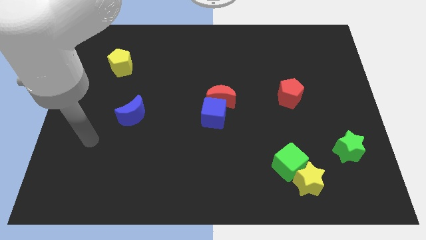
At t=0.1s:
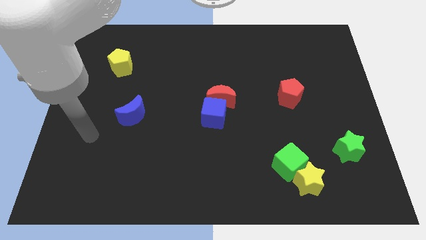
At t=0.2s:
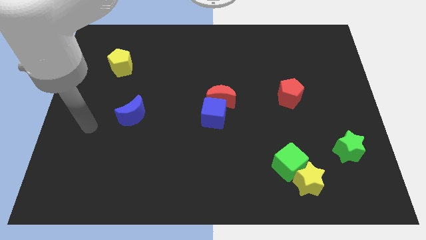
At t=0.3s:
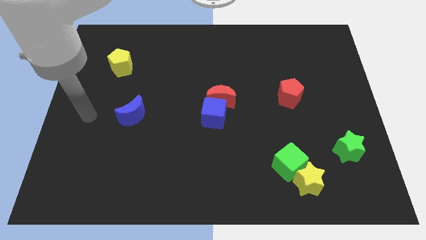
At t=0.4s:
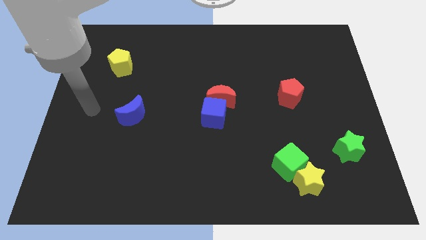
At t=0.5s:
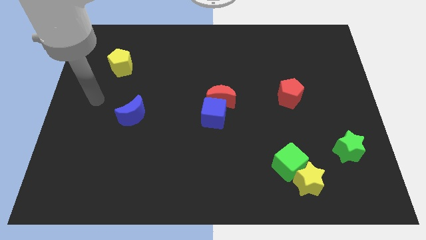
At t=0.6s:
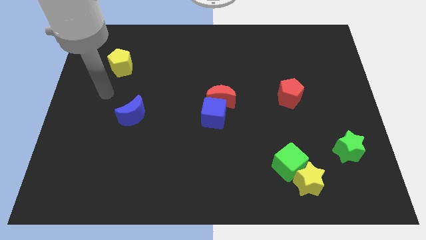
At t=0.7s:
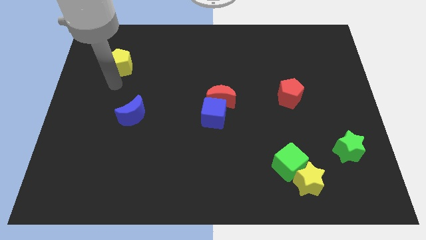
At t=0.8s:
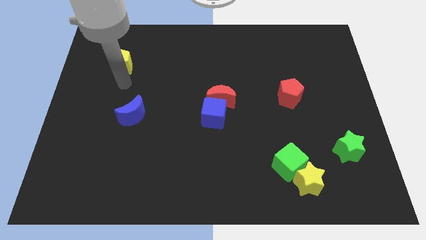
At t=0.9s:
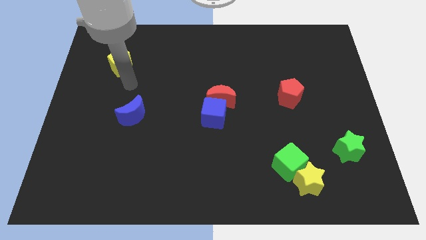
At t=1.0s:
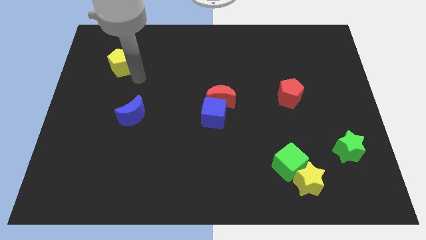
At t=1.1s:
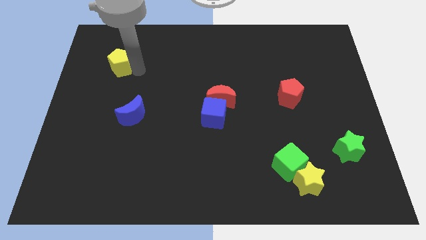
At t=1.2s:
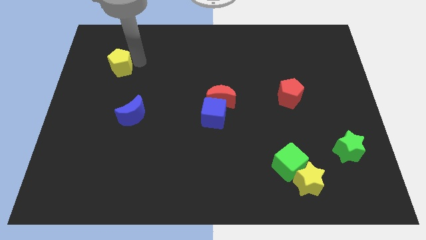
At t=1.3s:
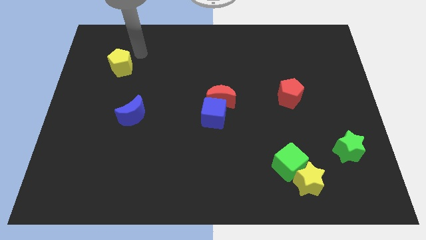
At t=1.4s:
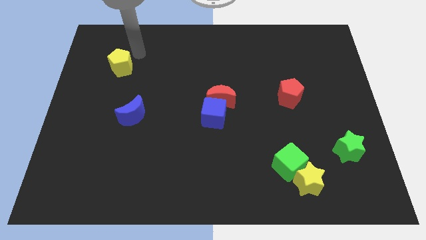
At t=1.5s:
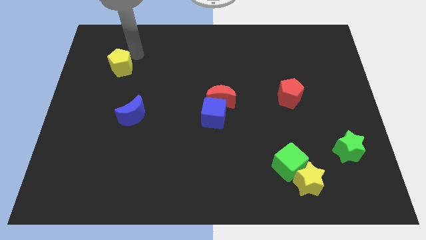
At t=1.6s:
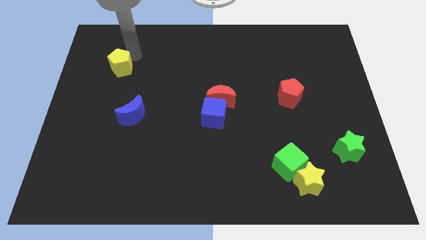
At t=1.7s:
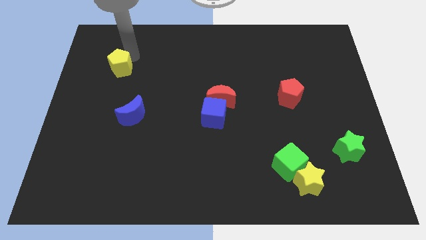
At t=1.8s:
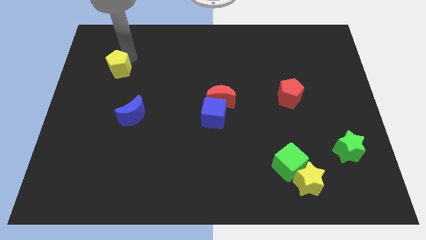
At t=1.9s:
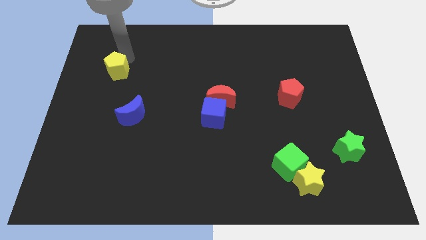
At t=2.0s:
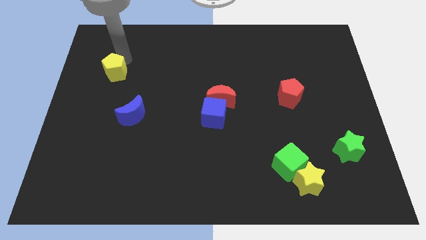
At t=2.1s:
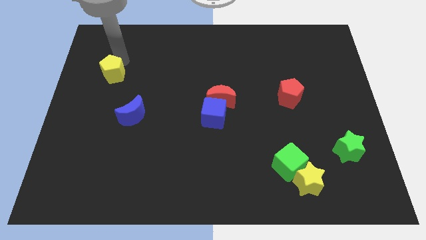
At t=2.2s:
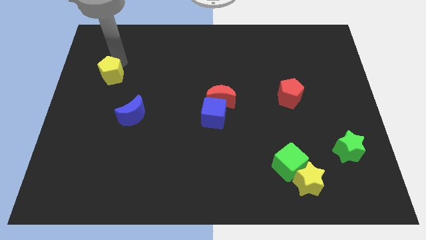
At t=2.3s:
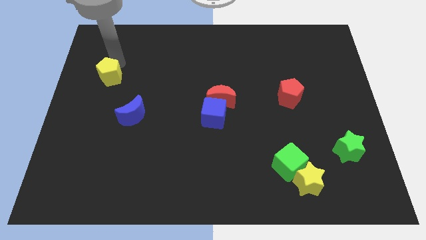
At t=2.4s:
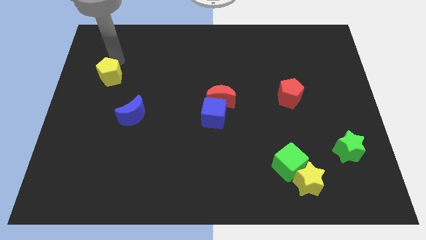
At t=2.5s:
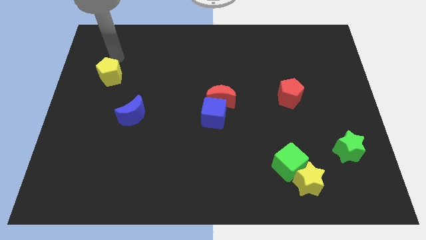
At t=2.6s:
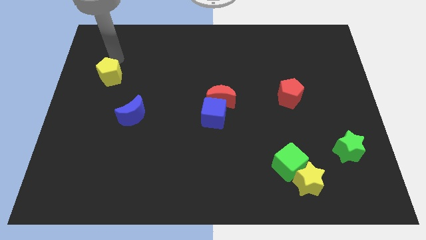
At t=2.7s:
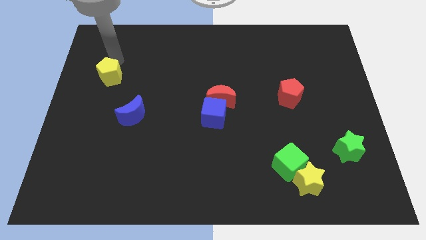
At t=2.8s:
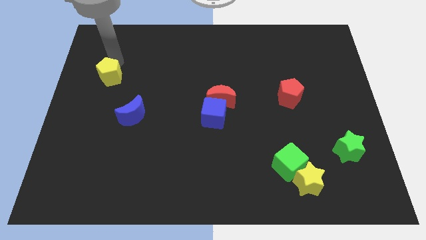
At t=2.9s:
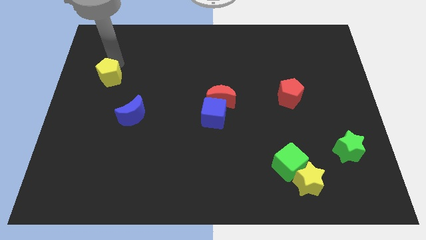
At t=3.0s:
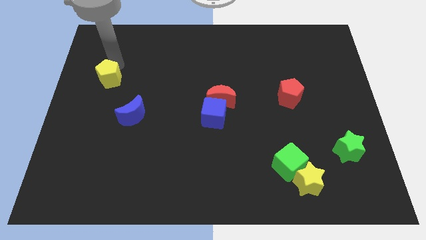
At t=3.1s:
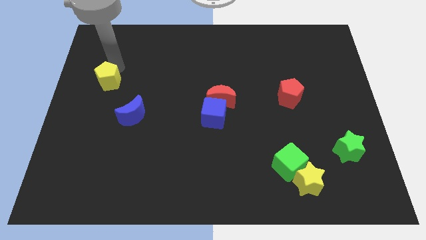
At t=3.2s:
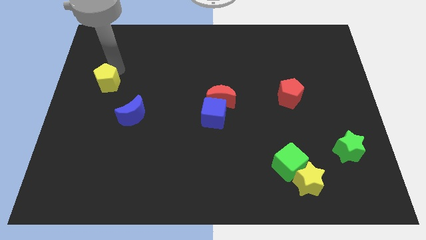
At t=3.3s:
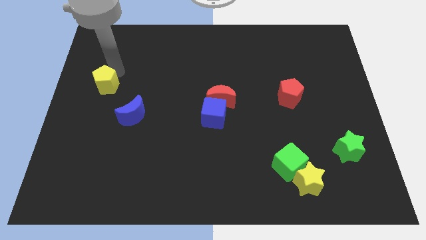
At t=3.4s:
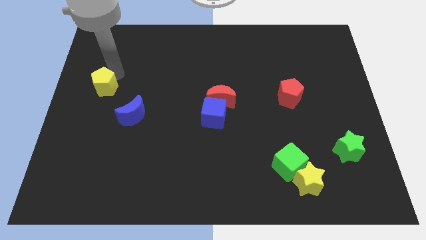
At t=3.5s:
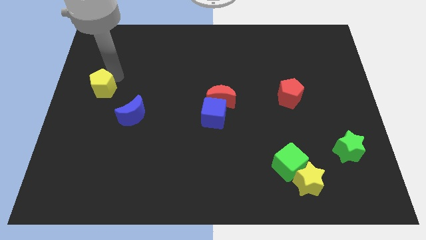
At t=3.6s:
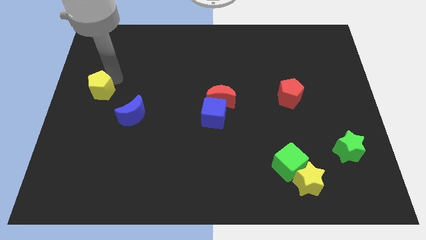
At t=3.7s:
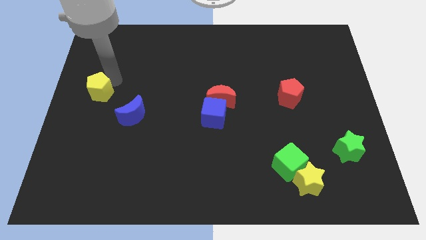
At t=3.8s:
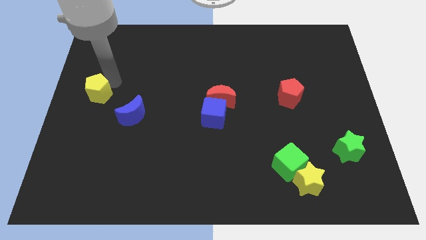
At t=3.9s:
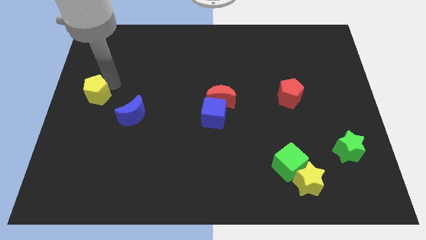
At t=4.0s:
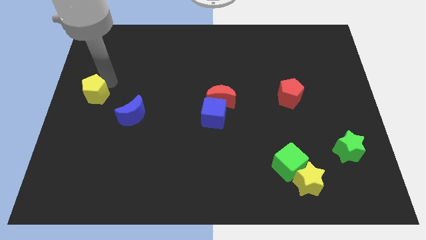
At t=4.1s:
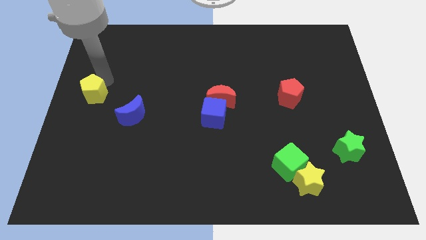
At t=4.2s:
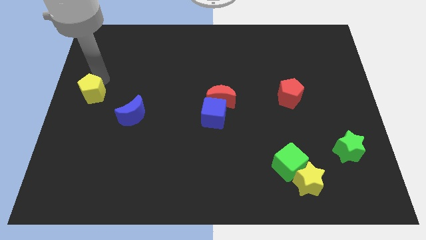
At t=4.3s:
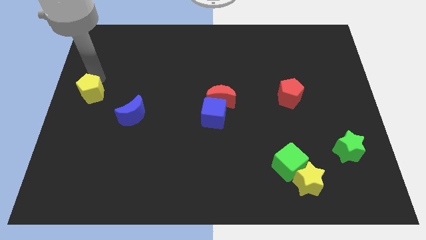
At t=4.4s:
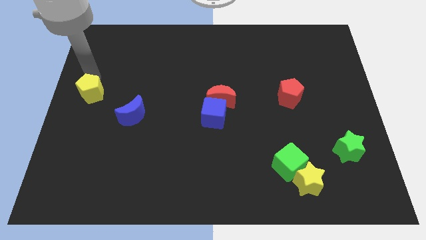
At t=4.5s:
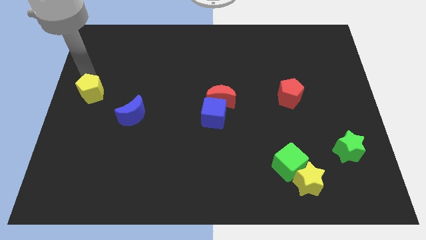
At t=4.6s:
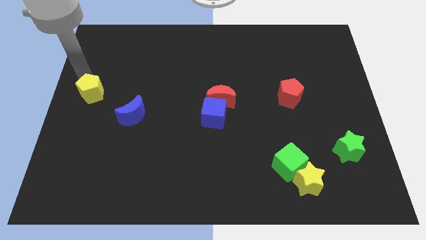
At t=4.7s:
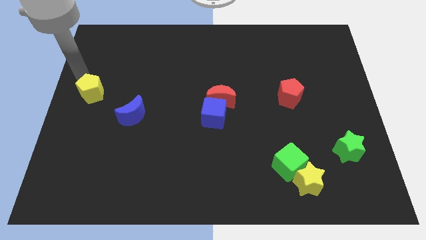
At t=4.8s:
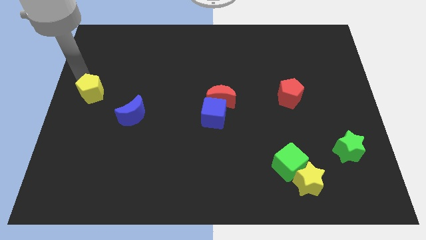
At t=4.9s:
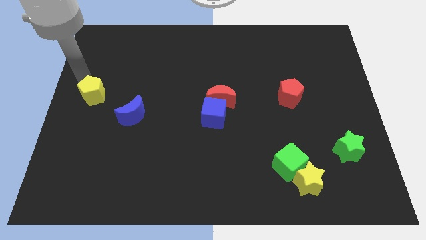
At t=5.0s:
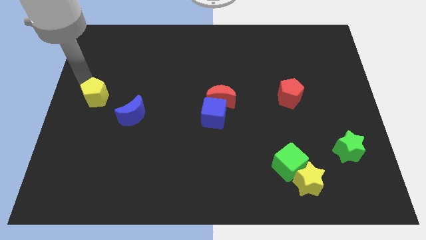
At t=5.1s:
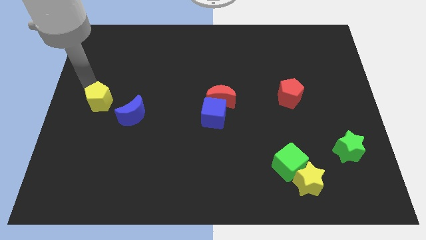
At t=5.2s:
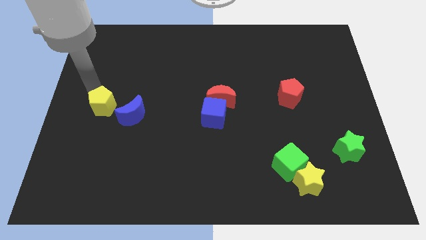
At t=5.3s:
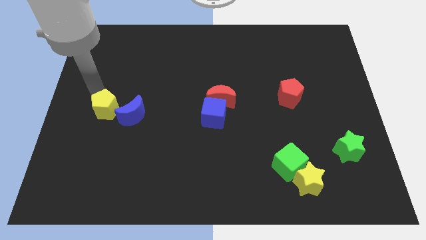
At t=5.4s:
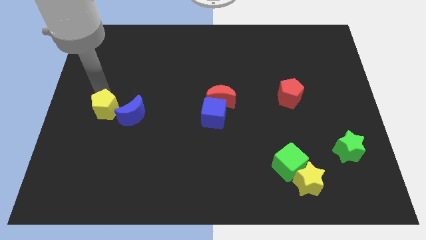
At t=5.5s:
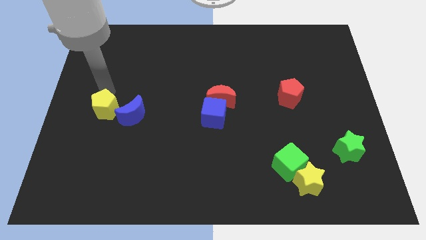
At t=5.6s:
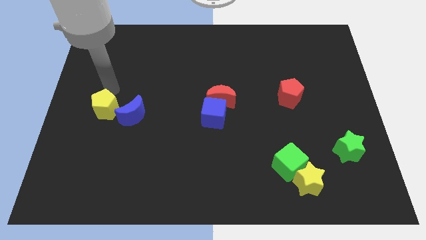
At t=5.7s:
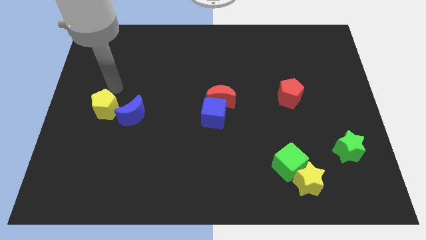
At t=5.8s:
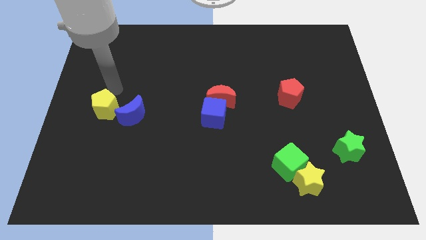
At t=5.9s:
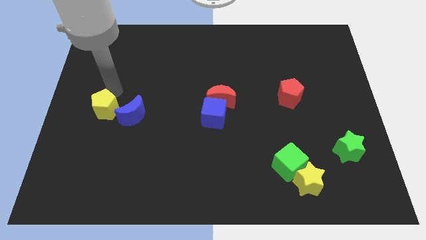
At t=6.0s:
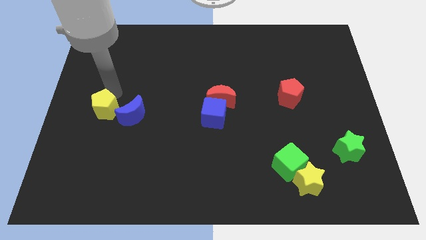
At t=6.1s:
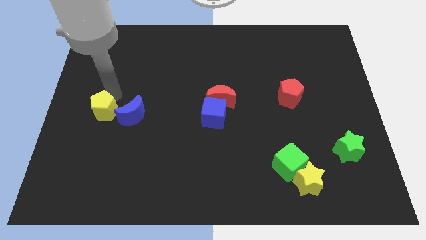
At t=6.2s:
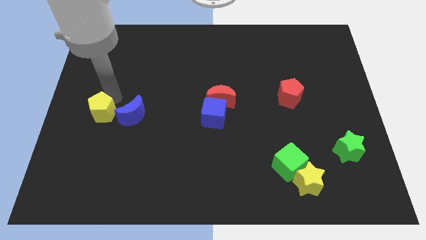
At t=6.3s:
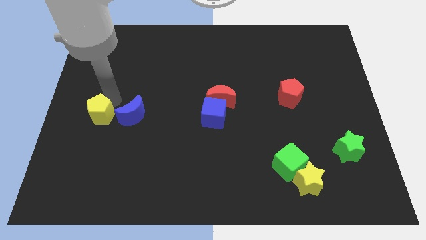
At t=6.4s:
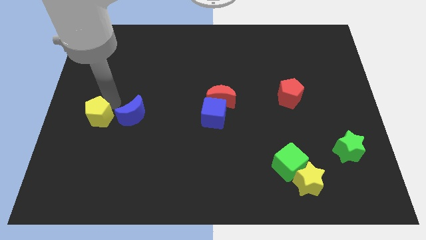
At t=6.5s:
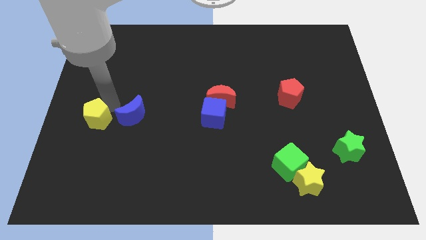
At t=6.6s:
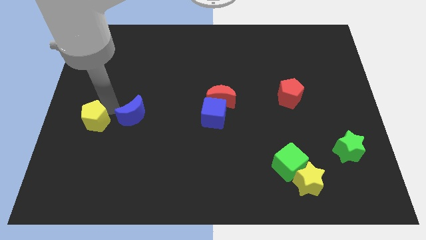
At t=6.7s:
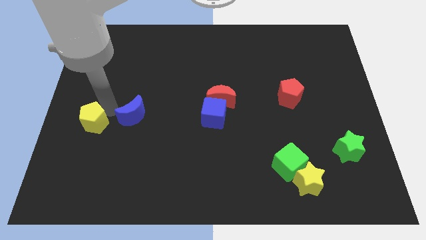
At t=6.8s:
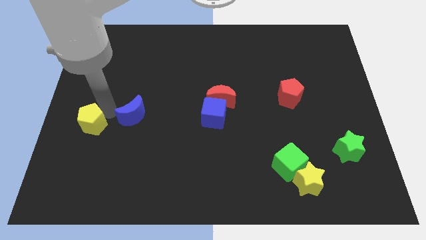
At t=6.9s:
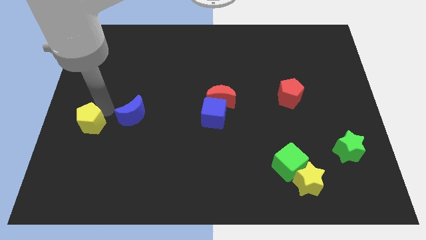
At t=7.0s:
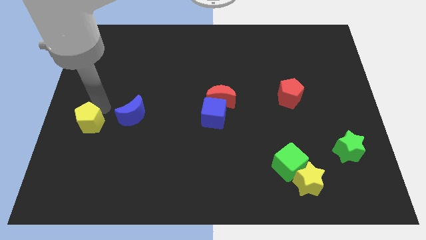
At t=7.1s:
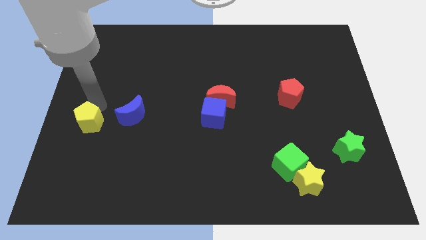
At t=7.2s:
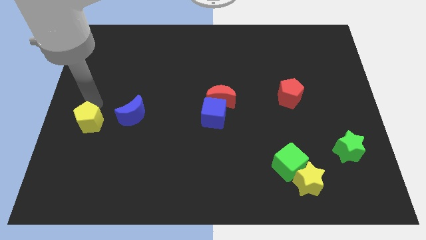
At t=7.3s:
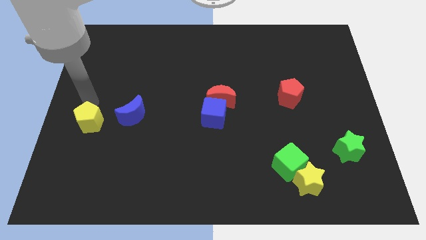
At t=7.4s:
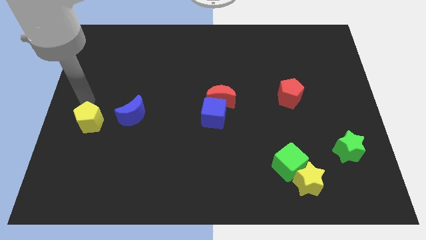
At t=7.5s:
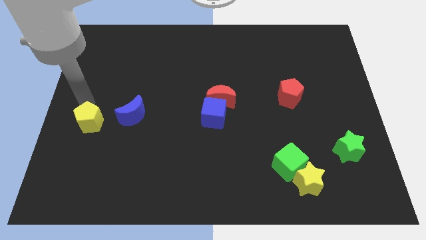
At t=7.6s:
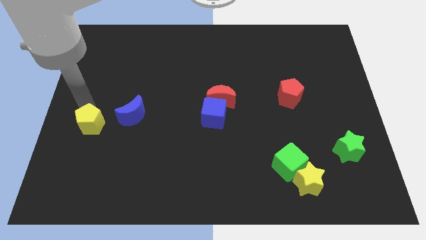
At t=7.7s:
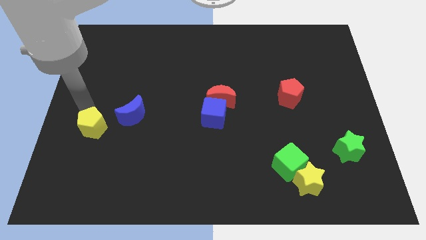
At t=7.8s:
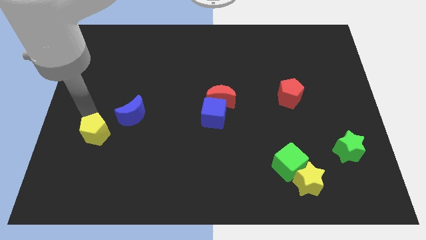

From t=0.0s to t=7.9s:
move the yellow pentagon down

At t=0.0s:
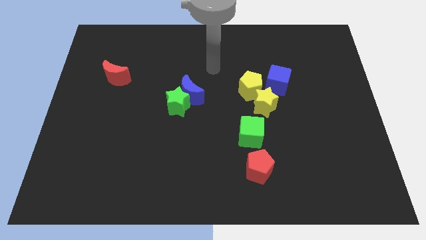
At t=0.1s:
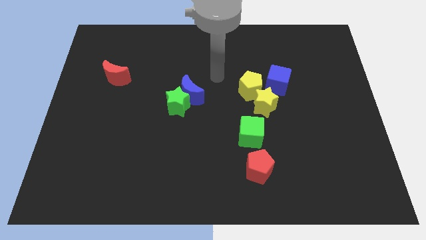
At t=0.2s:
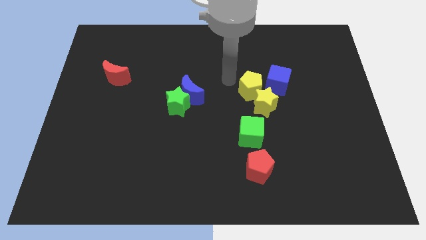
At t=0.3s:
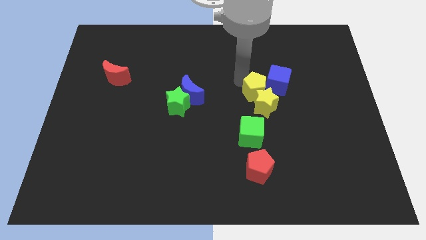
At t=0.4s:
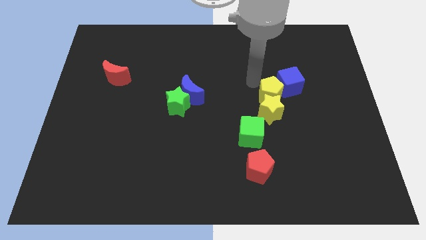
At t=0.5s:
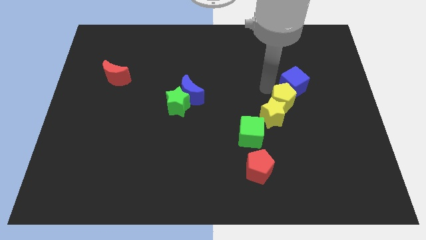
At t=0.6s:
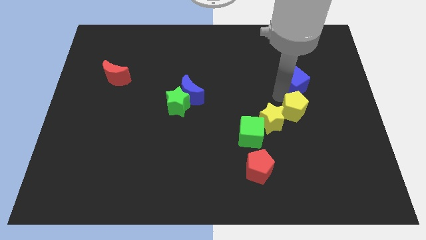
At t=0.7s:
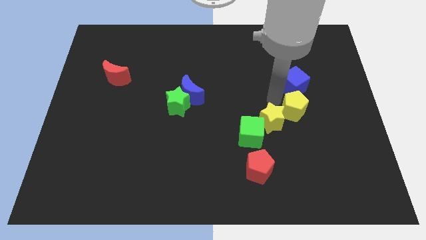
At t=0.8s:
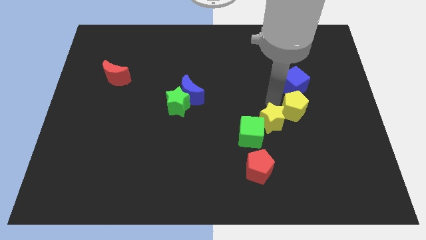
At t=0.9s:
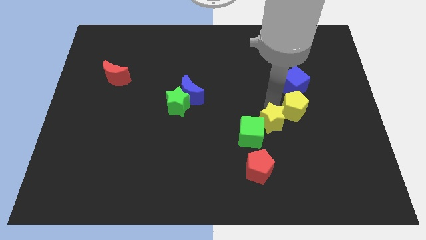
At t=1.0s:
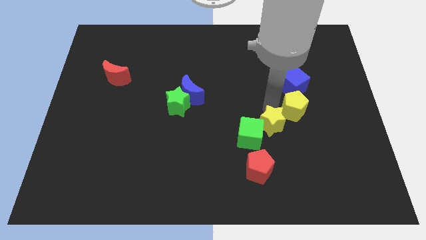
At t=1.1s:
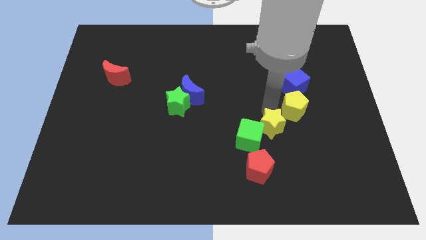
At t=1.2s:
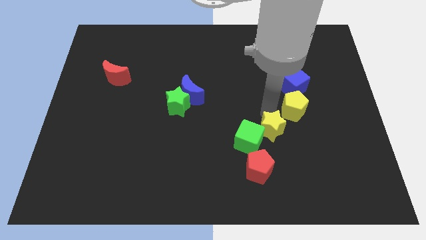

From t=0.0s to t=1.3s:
move the yellow star downwards a little bit
